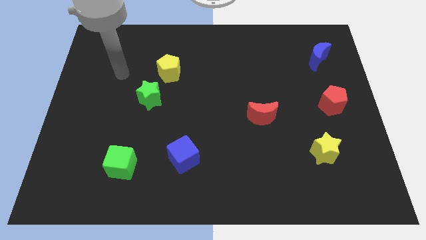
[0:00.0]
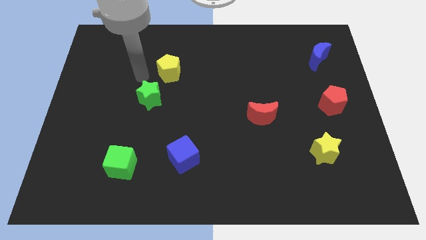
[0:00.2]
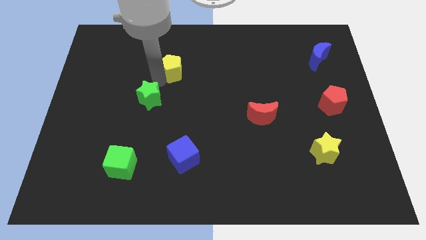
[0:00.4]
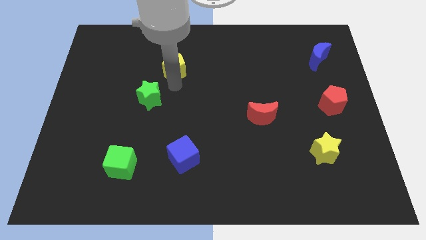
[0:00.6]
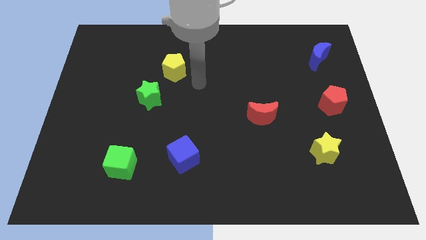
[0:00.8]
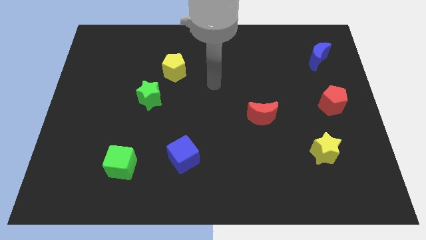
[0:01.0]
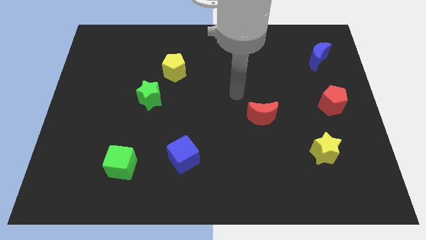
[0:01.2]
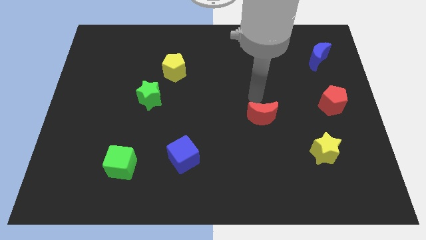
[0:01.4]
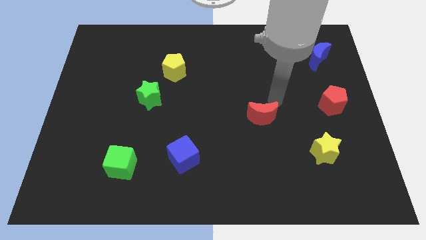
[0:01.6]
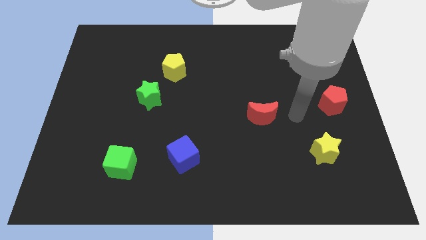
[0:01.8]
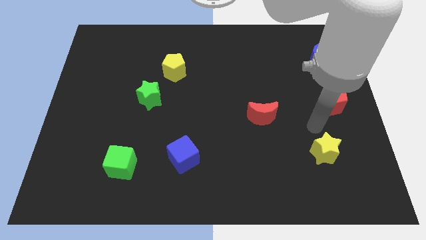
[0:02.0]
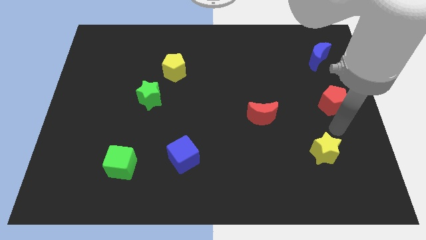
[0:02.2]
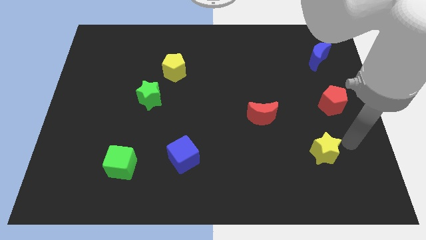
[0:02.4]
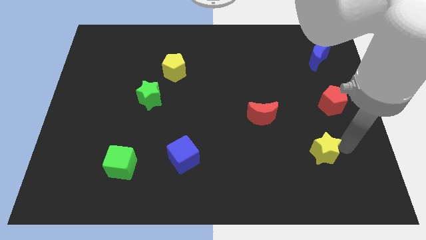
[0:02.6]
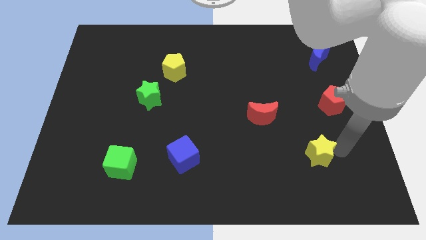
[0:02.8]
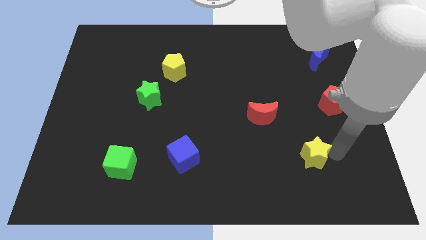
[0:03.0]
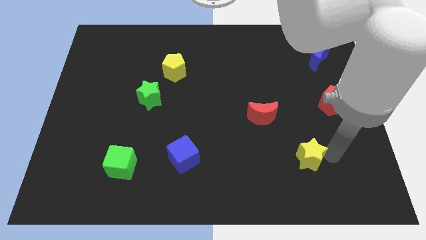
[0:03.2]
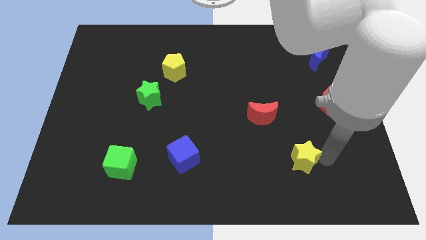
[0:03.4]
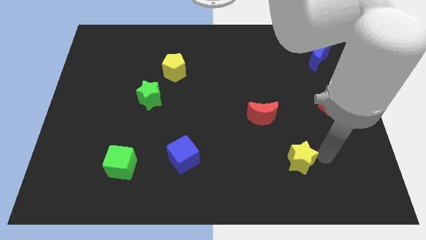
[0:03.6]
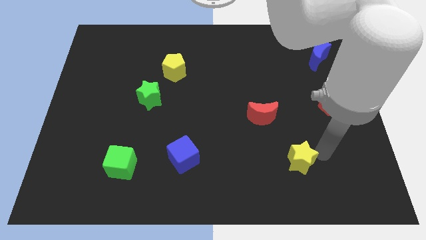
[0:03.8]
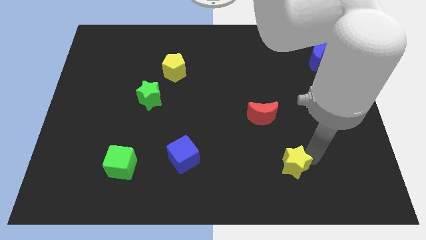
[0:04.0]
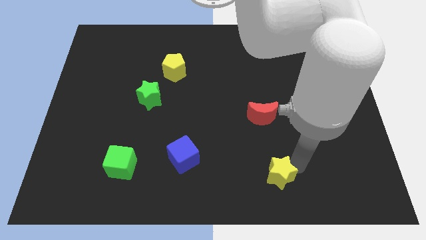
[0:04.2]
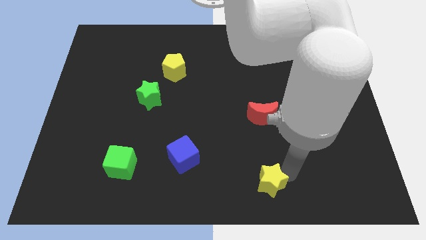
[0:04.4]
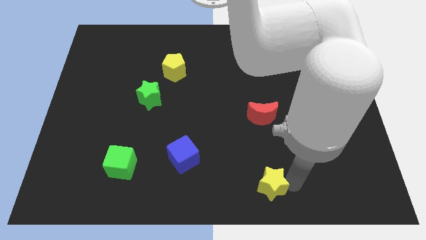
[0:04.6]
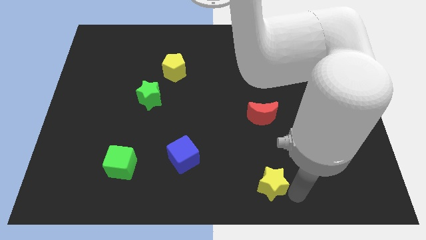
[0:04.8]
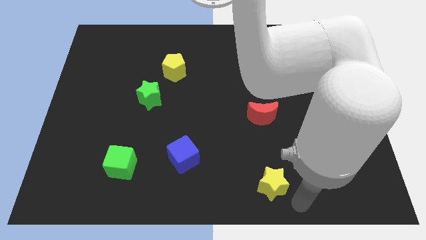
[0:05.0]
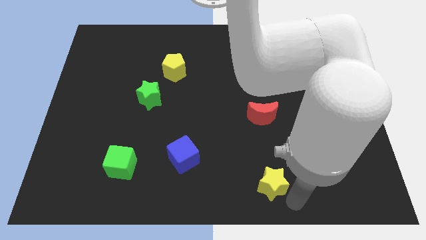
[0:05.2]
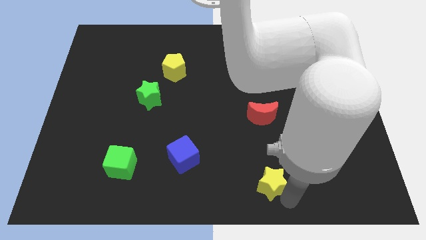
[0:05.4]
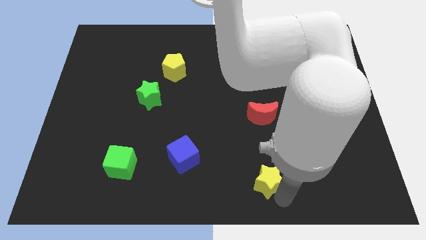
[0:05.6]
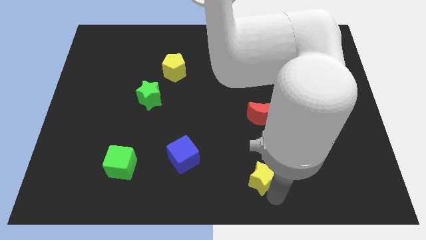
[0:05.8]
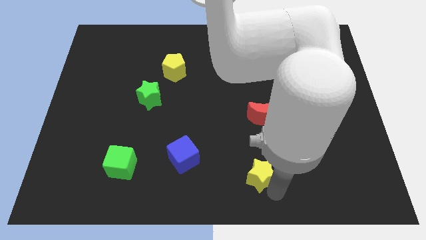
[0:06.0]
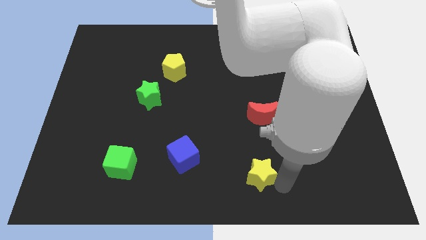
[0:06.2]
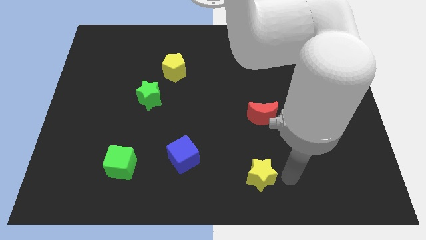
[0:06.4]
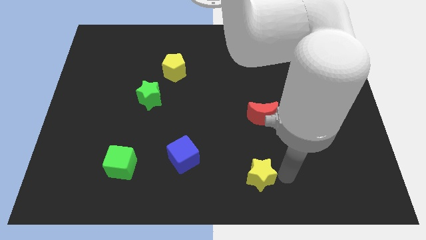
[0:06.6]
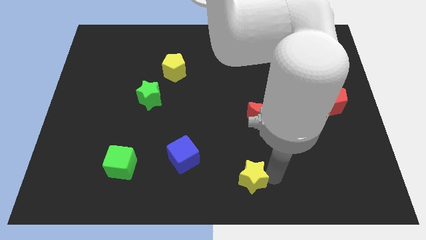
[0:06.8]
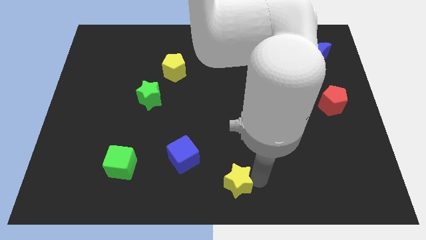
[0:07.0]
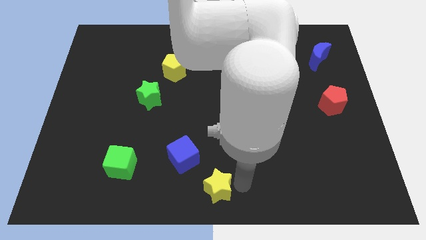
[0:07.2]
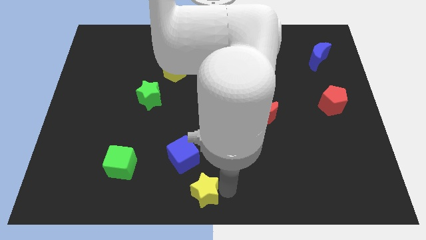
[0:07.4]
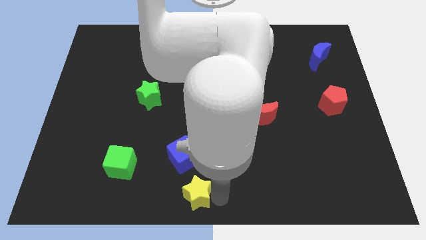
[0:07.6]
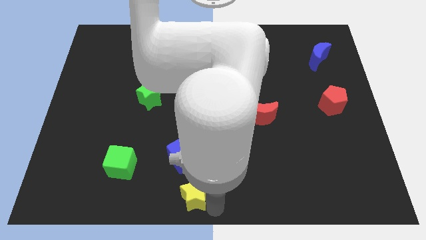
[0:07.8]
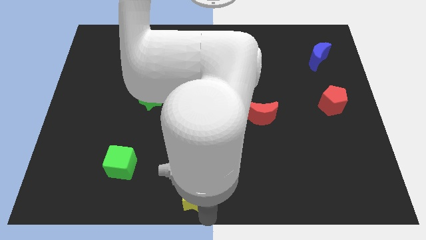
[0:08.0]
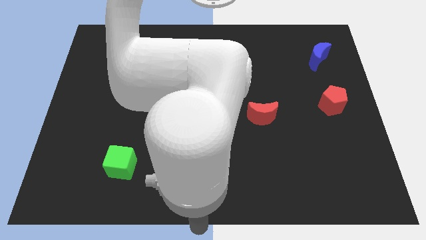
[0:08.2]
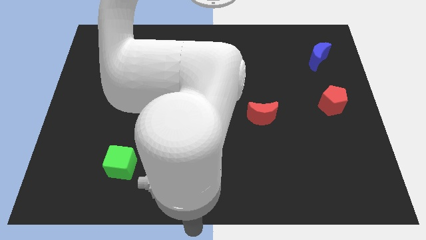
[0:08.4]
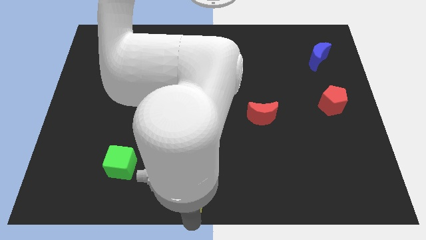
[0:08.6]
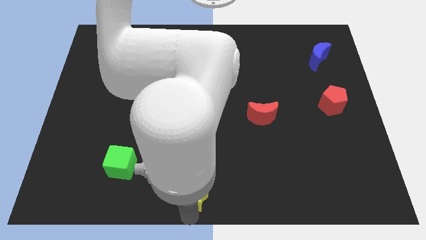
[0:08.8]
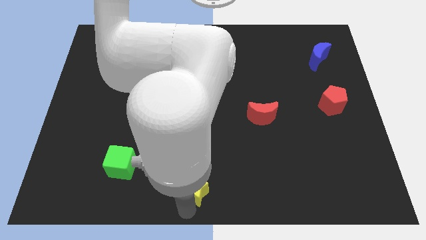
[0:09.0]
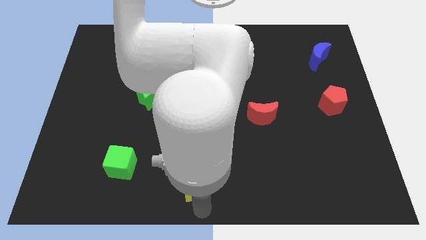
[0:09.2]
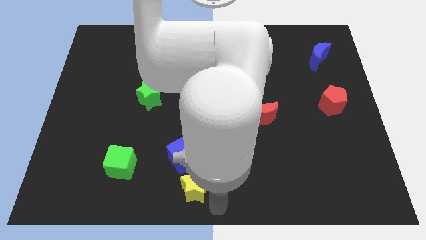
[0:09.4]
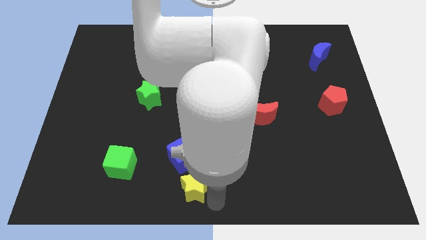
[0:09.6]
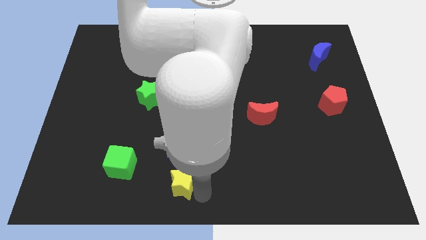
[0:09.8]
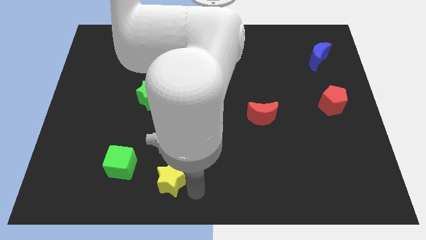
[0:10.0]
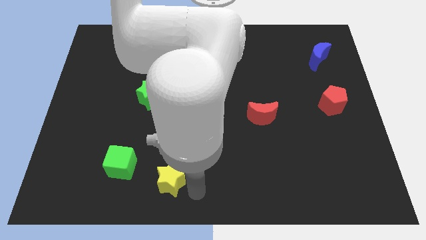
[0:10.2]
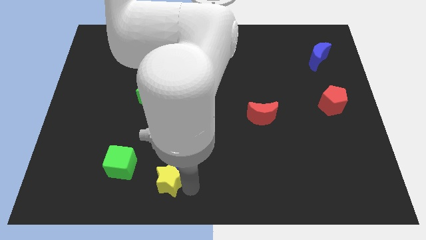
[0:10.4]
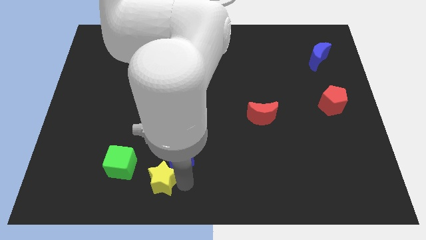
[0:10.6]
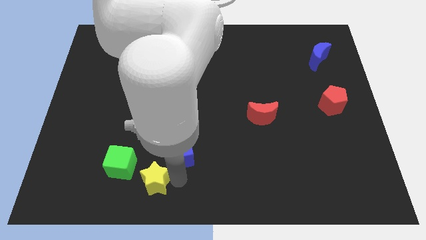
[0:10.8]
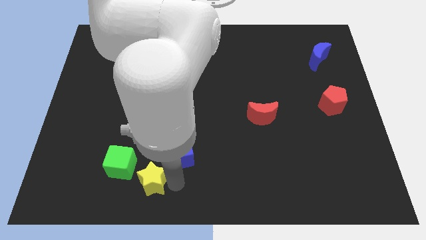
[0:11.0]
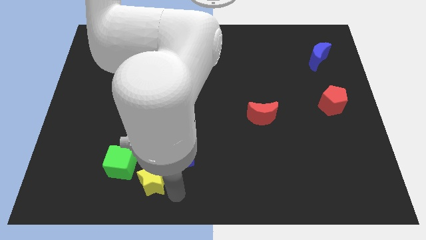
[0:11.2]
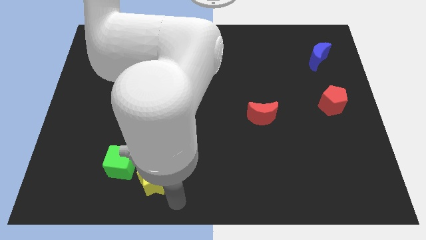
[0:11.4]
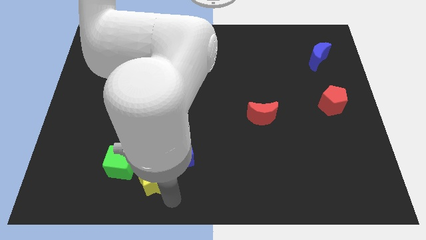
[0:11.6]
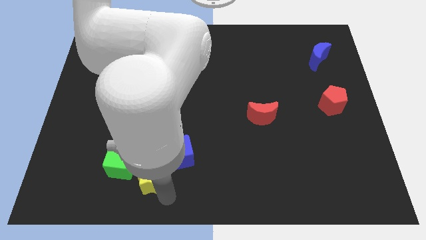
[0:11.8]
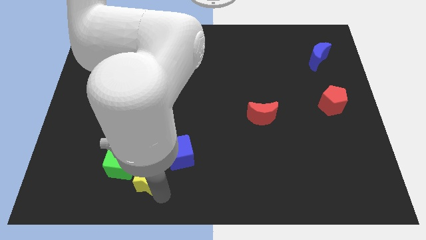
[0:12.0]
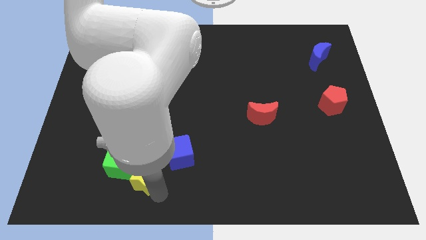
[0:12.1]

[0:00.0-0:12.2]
put the yellow star to the green cube

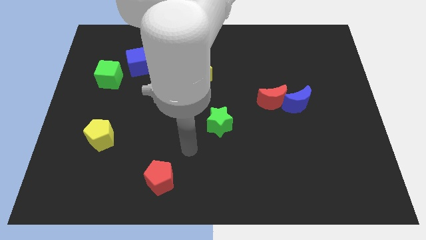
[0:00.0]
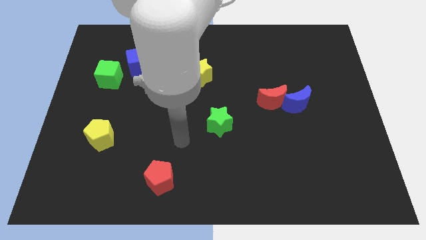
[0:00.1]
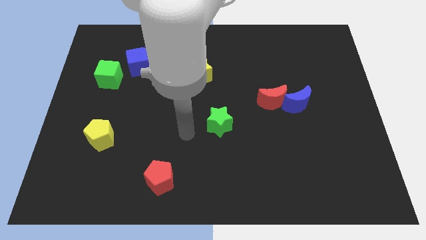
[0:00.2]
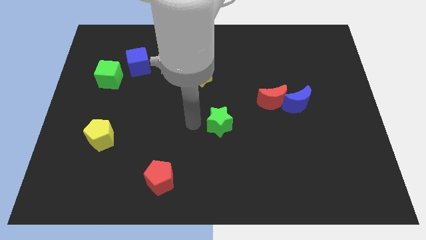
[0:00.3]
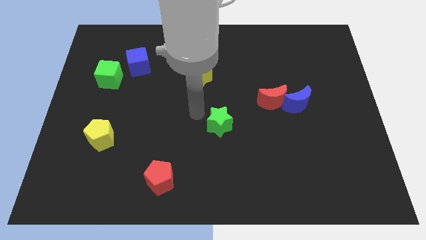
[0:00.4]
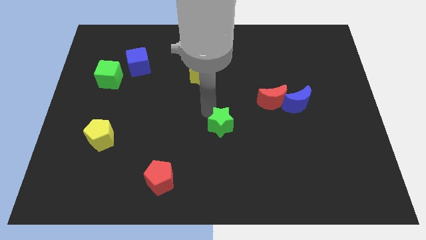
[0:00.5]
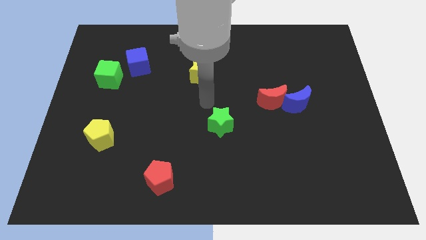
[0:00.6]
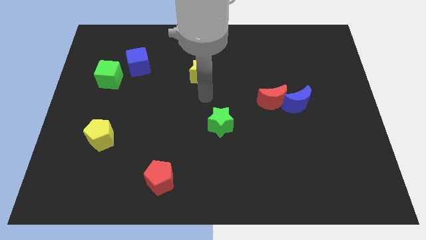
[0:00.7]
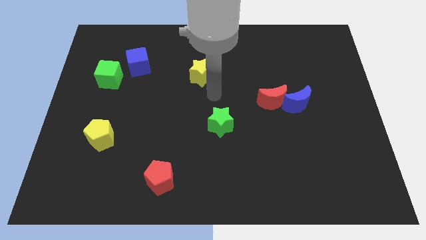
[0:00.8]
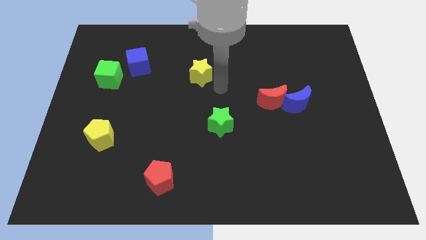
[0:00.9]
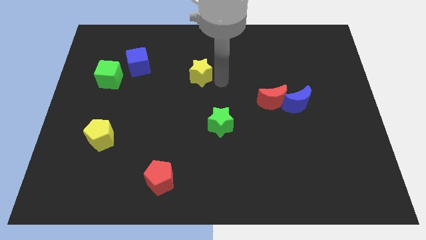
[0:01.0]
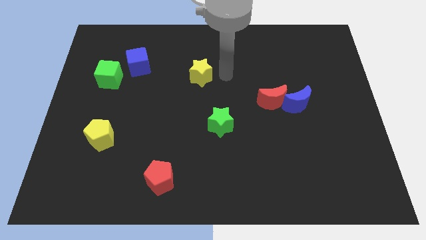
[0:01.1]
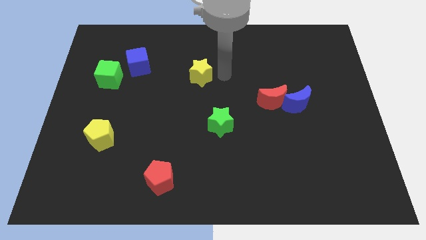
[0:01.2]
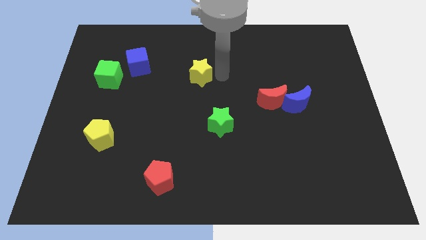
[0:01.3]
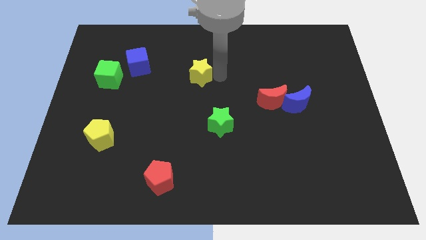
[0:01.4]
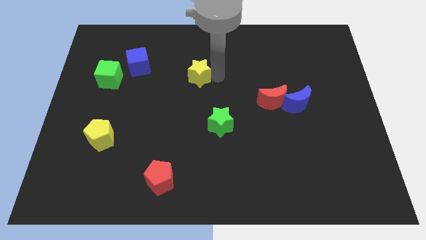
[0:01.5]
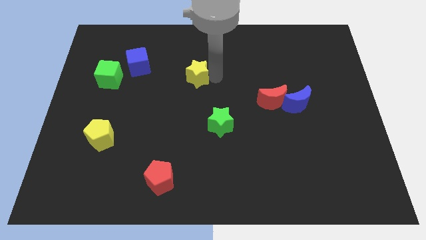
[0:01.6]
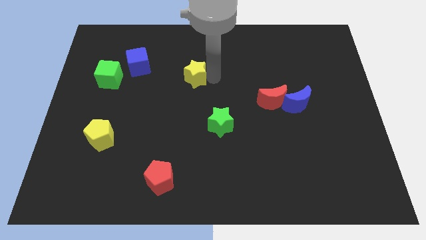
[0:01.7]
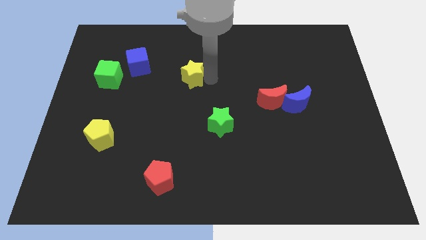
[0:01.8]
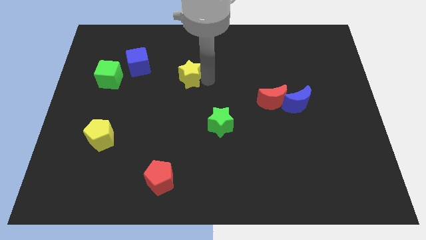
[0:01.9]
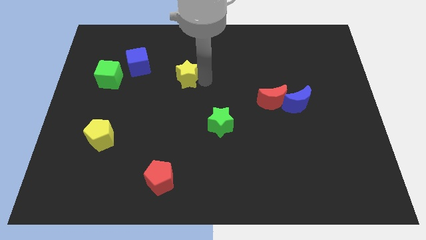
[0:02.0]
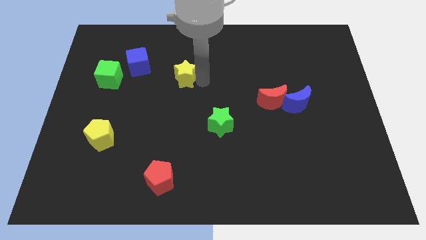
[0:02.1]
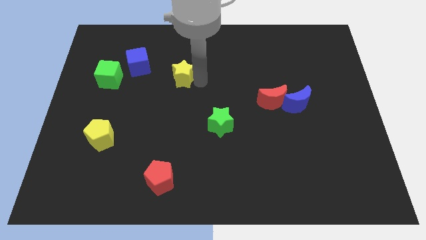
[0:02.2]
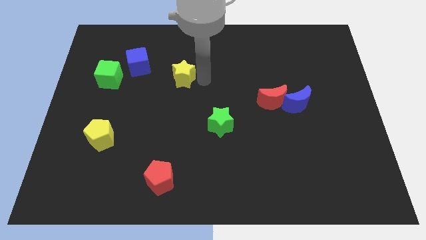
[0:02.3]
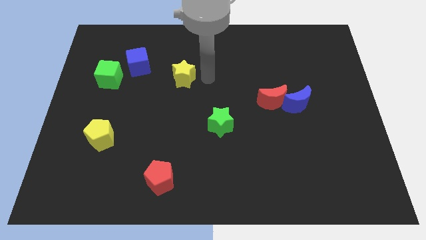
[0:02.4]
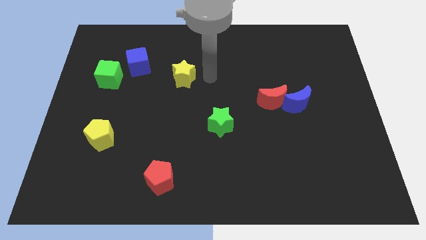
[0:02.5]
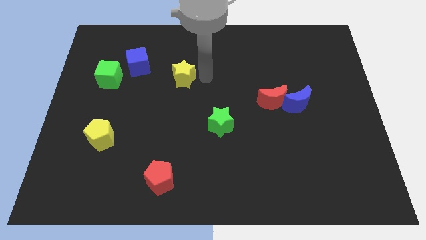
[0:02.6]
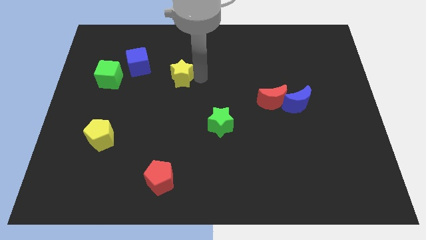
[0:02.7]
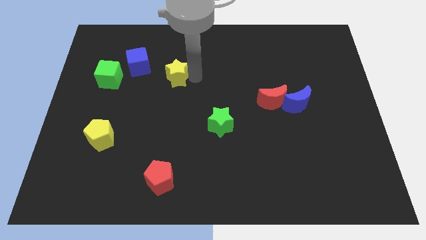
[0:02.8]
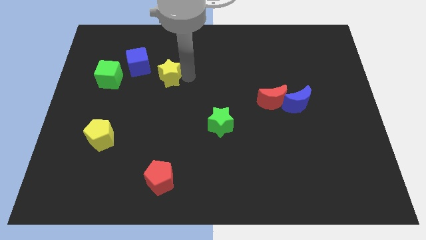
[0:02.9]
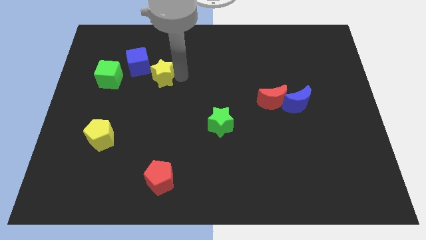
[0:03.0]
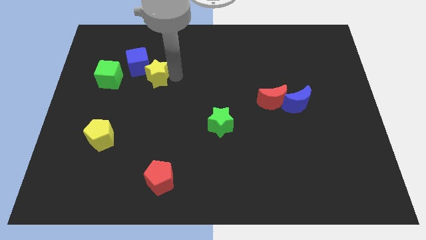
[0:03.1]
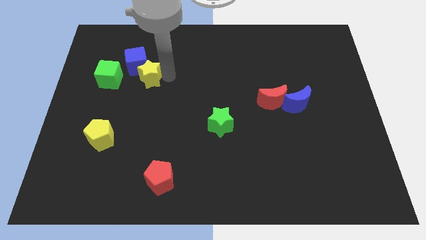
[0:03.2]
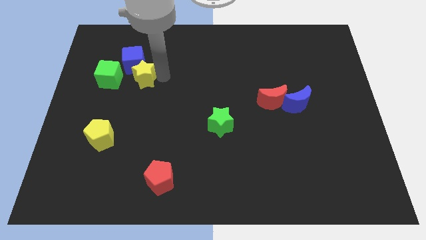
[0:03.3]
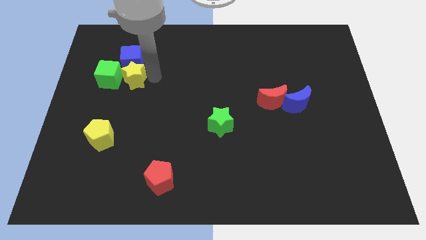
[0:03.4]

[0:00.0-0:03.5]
put the yellow star towards the green cube
